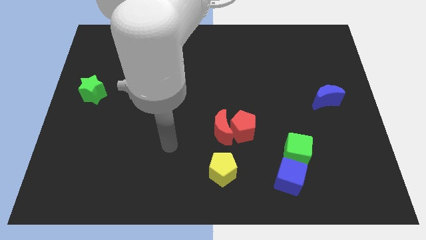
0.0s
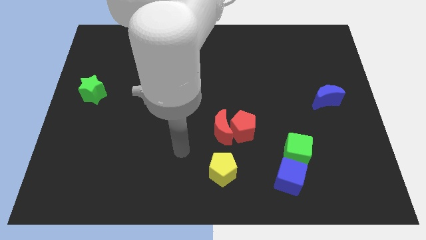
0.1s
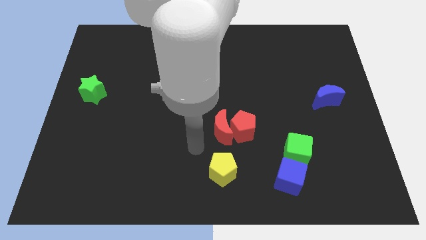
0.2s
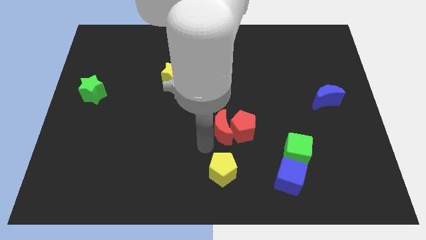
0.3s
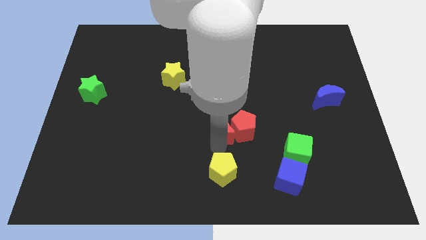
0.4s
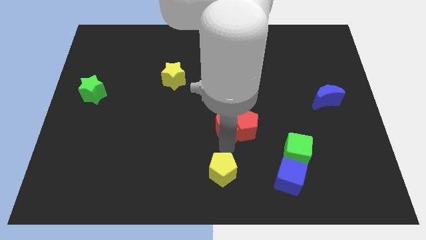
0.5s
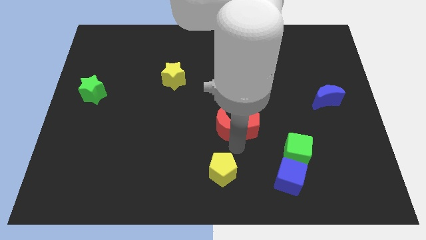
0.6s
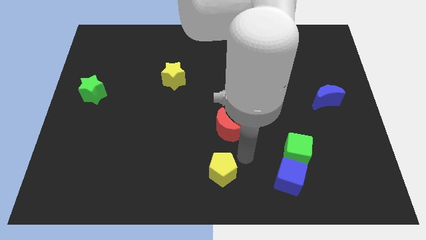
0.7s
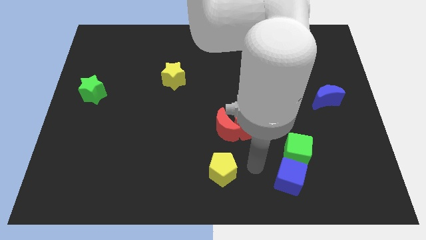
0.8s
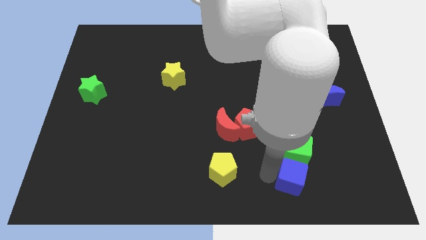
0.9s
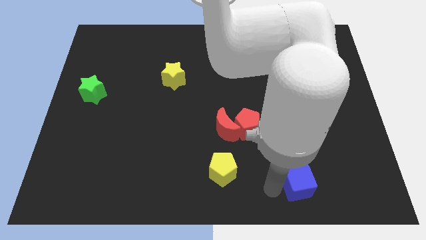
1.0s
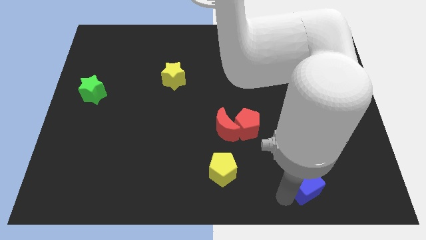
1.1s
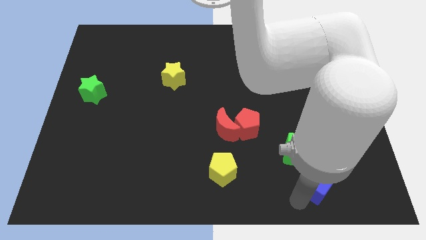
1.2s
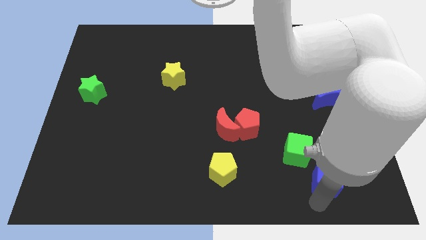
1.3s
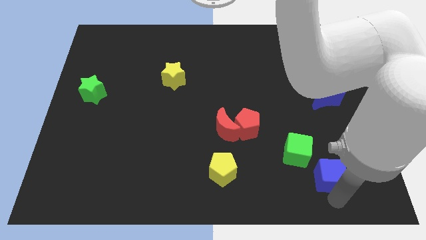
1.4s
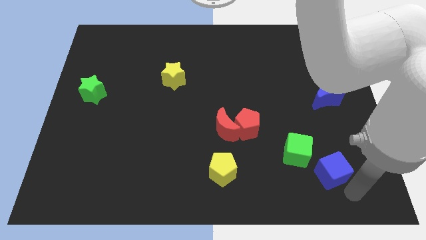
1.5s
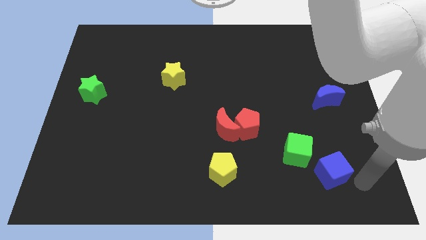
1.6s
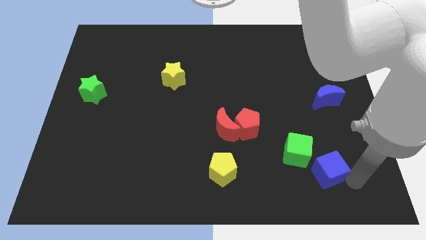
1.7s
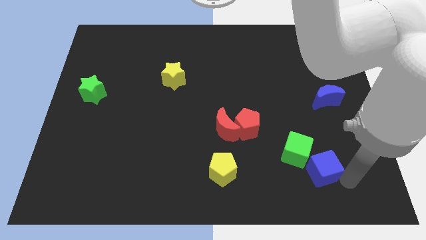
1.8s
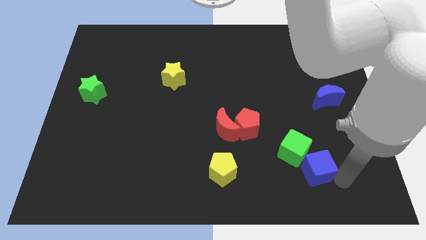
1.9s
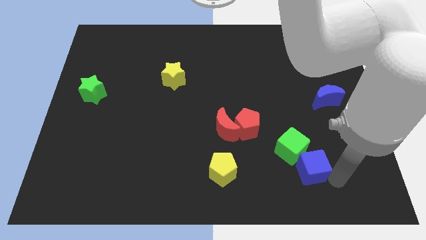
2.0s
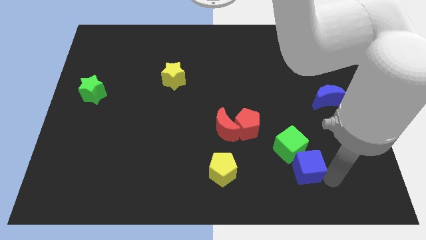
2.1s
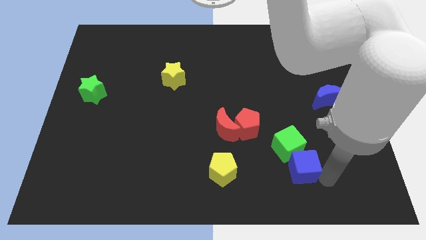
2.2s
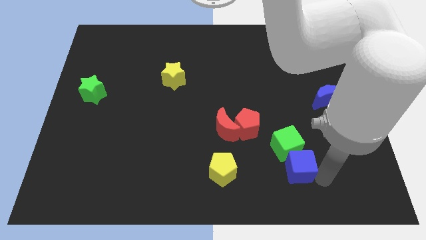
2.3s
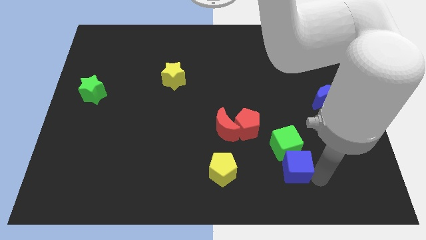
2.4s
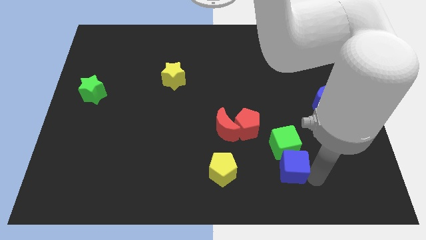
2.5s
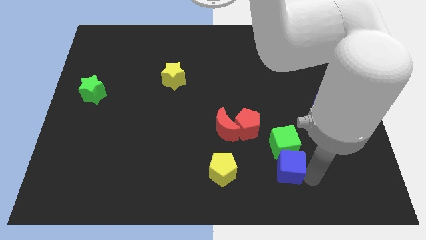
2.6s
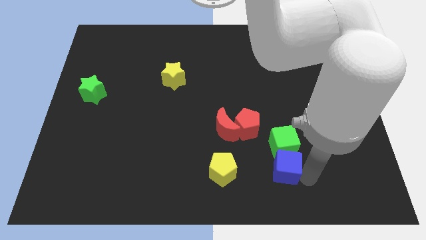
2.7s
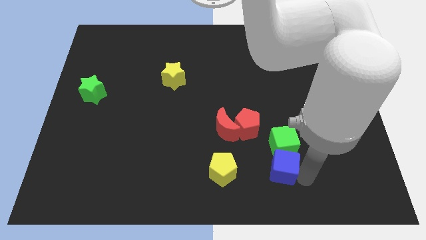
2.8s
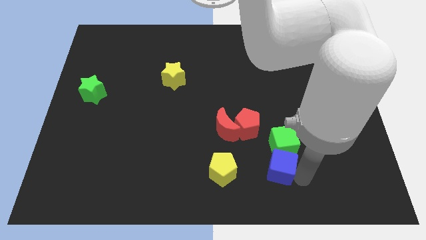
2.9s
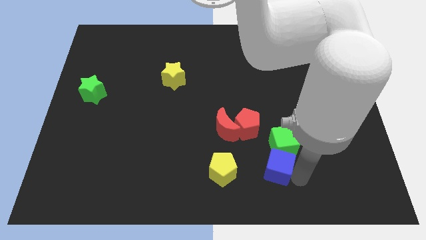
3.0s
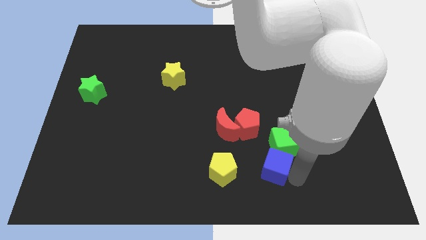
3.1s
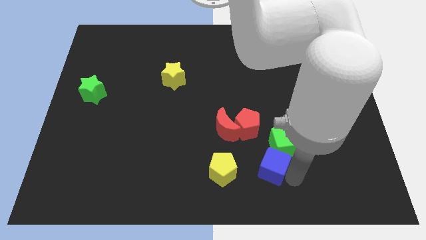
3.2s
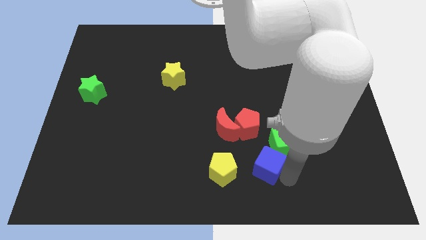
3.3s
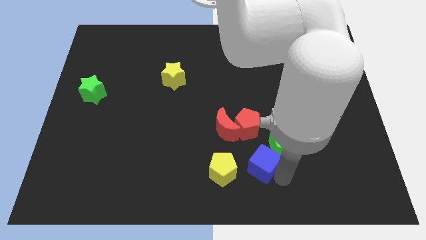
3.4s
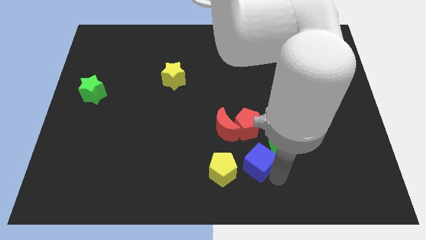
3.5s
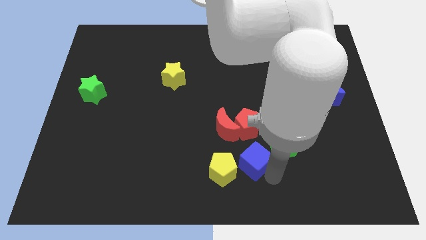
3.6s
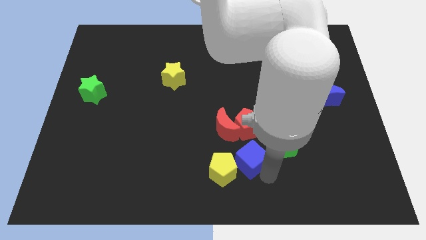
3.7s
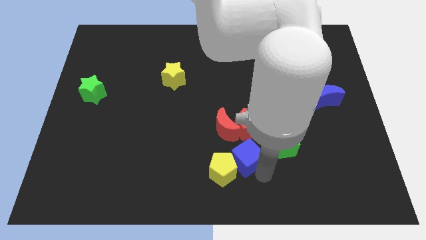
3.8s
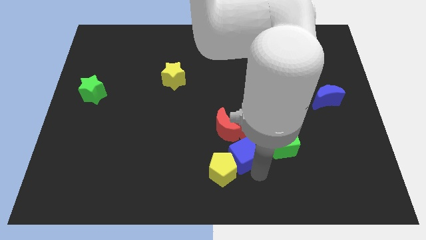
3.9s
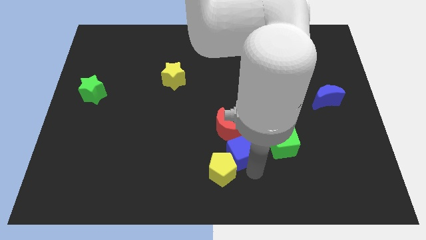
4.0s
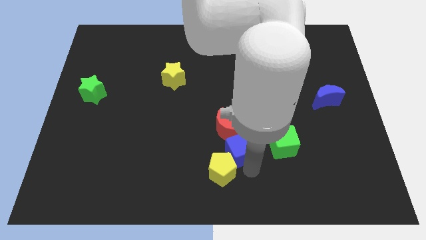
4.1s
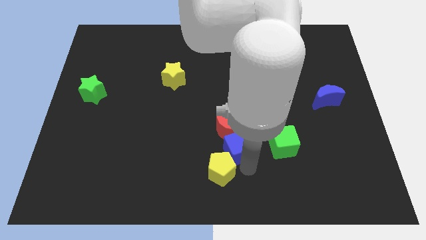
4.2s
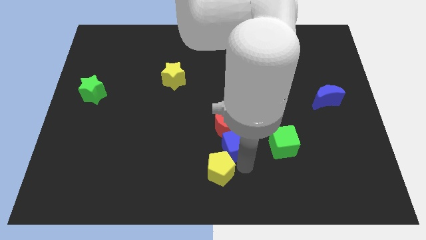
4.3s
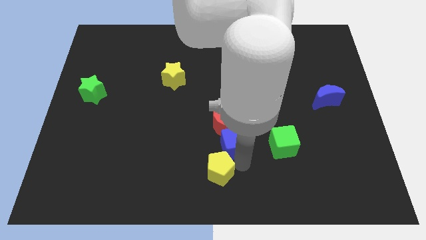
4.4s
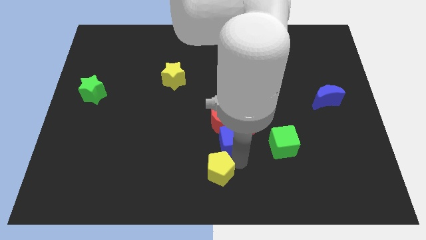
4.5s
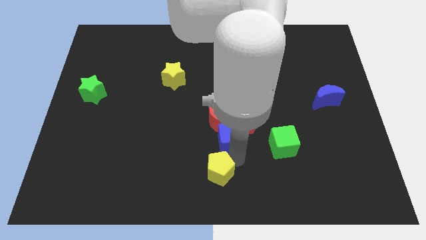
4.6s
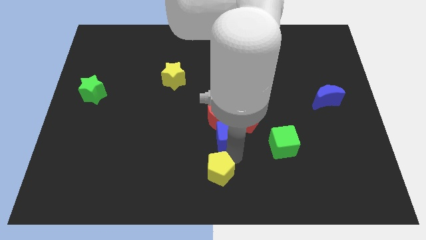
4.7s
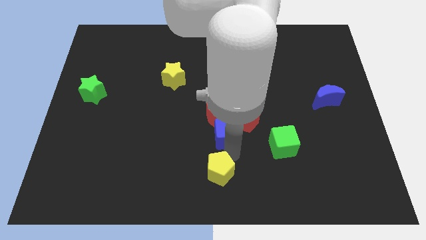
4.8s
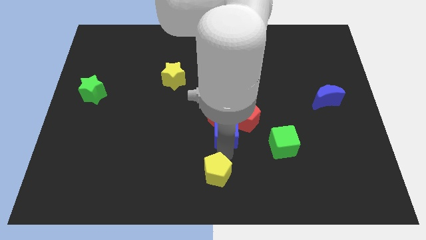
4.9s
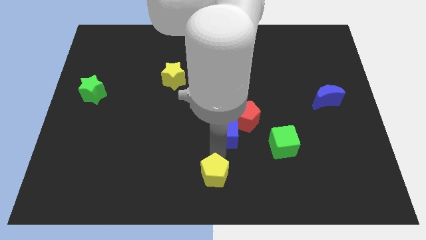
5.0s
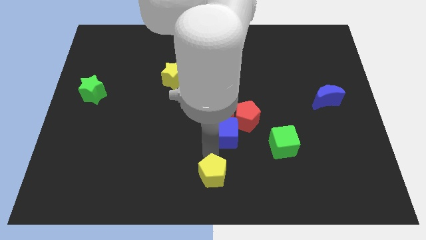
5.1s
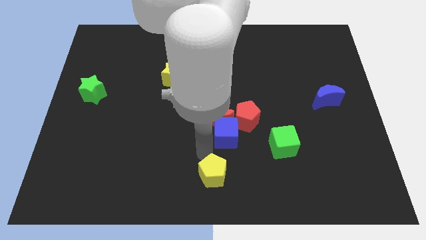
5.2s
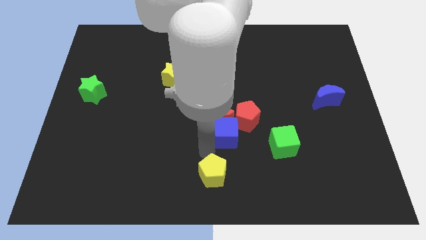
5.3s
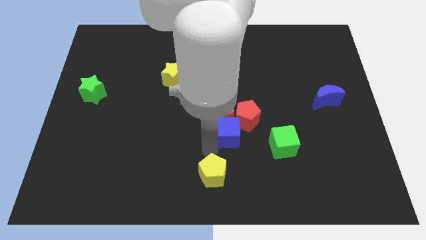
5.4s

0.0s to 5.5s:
put the blue cube close to the red pentagon

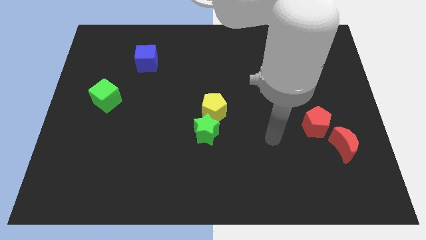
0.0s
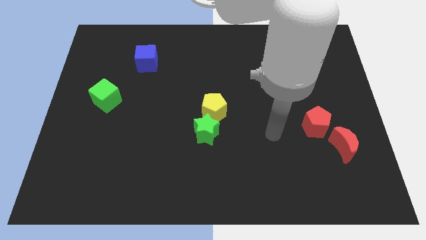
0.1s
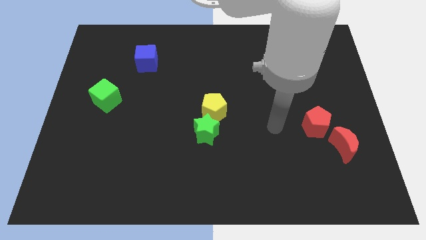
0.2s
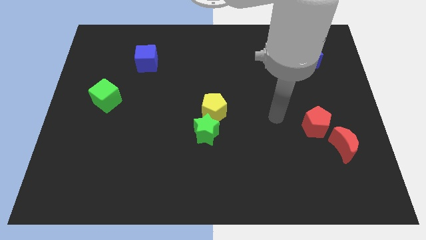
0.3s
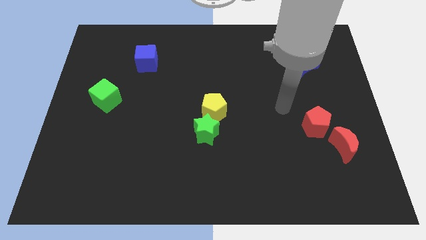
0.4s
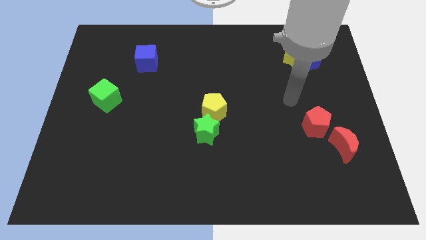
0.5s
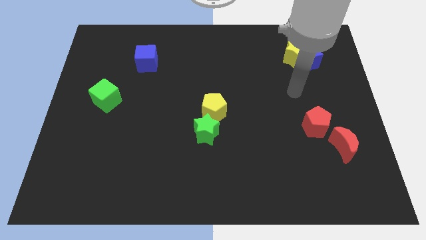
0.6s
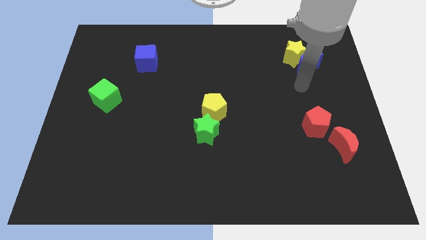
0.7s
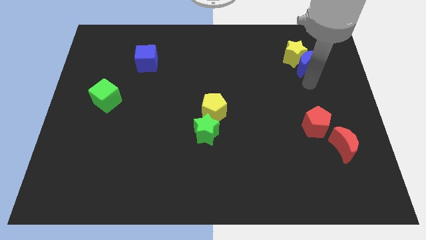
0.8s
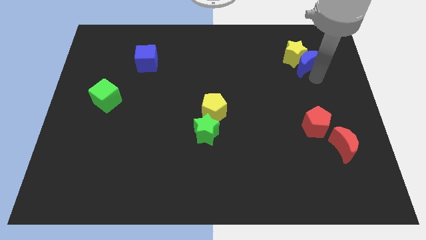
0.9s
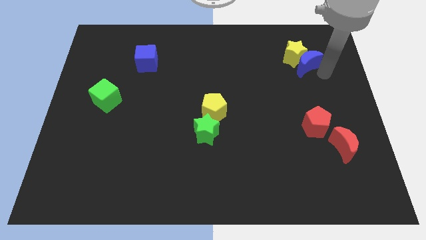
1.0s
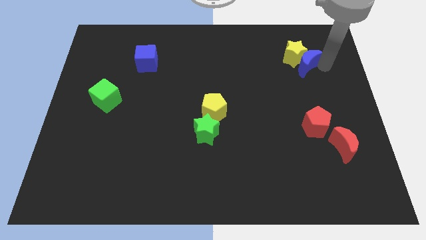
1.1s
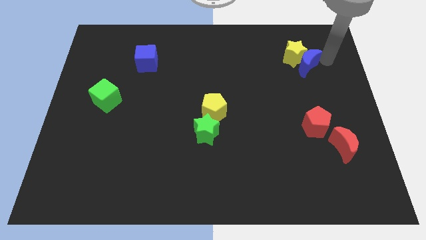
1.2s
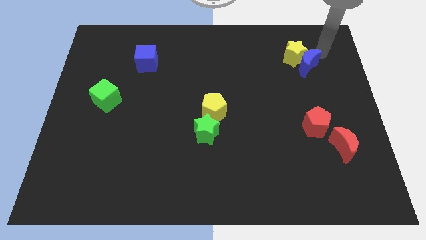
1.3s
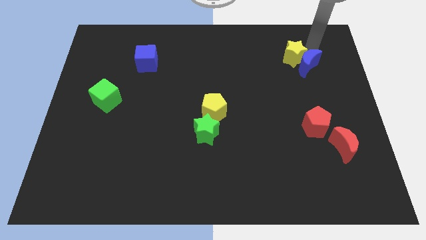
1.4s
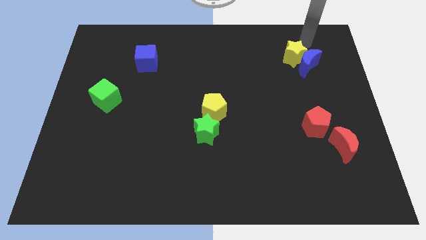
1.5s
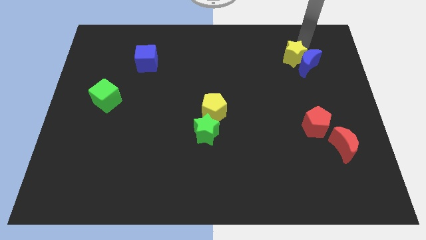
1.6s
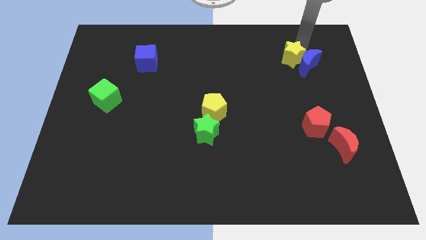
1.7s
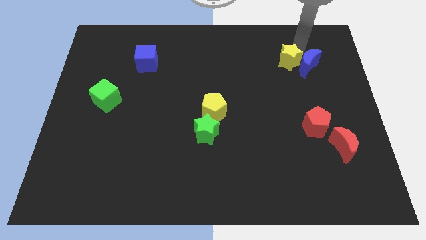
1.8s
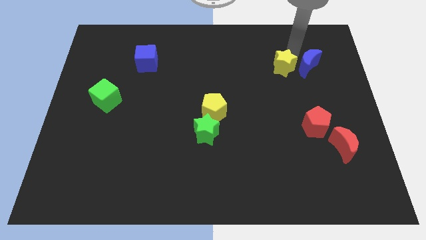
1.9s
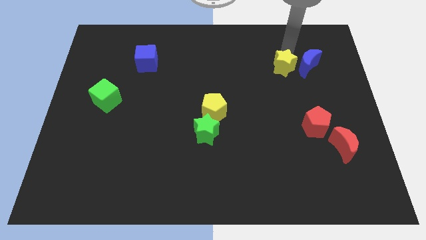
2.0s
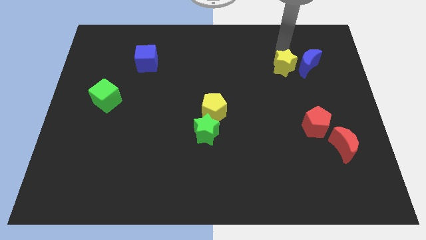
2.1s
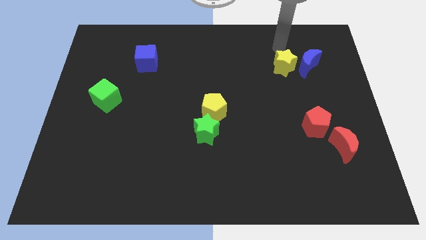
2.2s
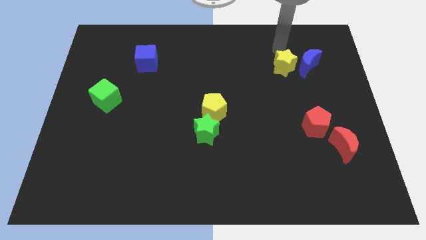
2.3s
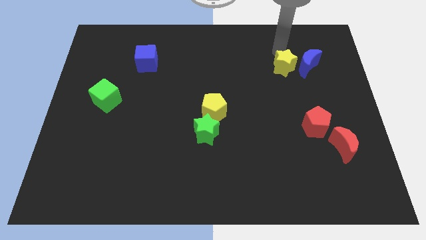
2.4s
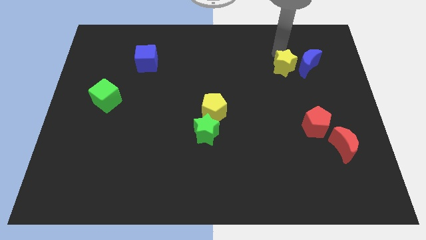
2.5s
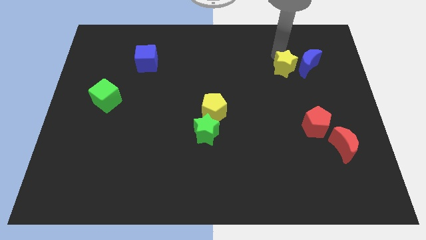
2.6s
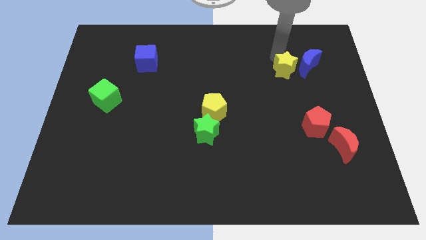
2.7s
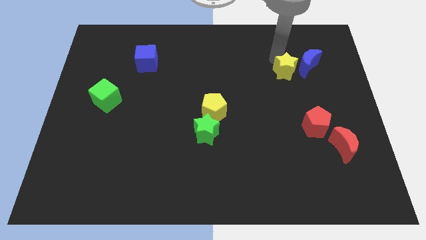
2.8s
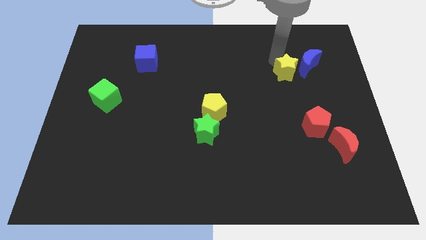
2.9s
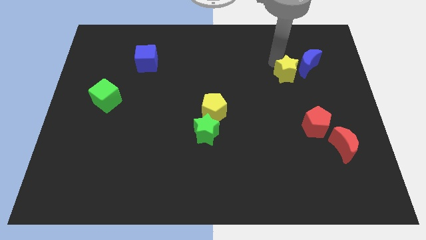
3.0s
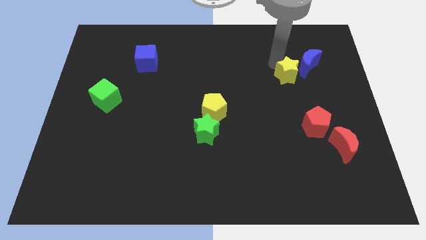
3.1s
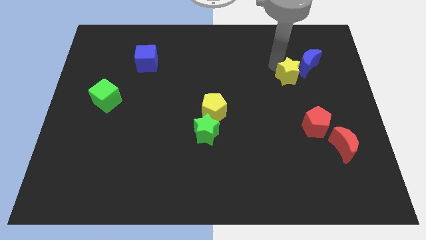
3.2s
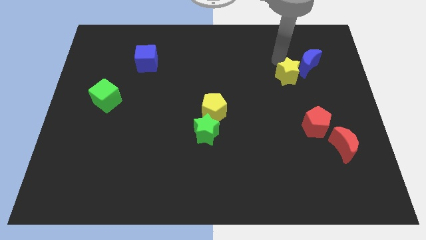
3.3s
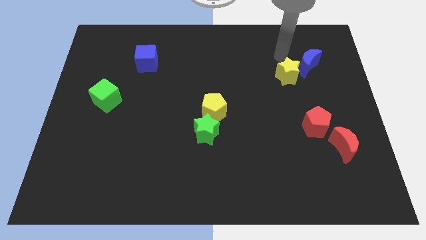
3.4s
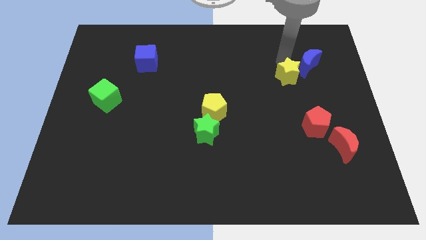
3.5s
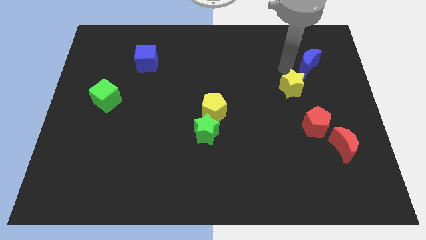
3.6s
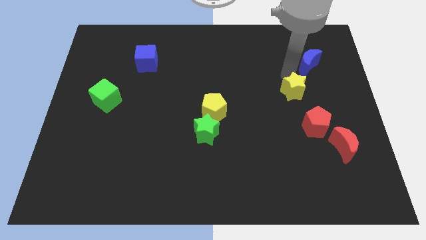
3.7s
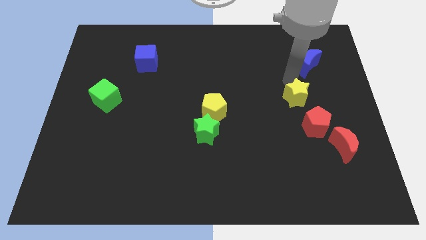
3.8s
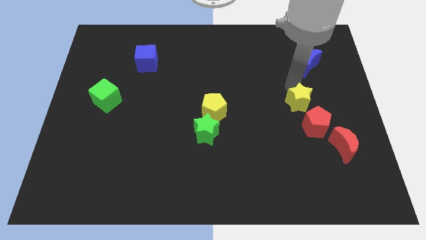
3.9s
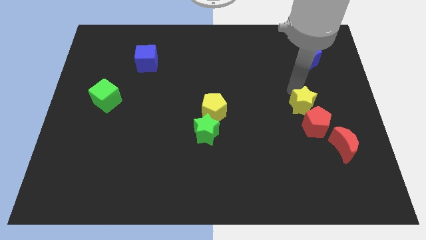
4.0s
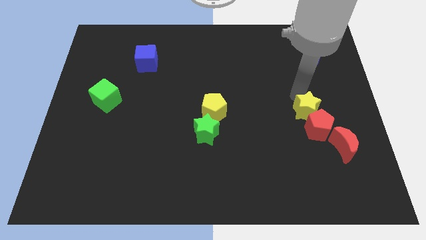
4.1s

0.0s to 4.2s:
push the yellow star towards the red pentagon
